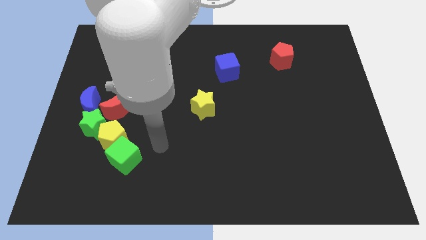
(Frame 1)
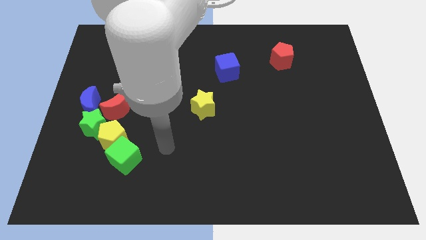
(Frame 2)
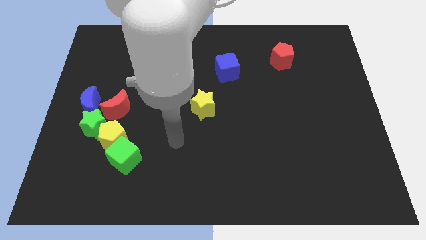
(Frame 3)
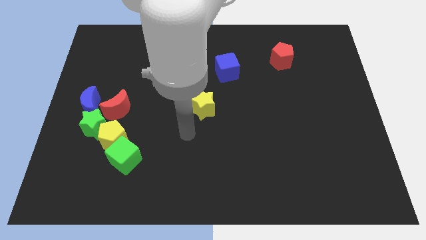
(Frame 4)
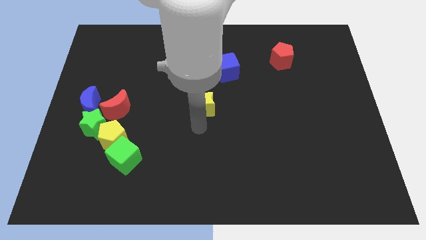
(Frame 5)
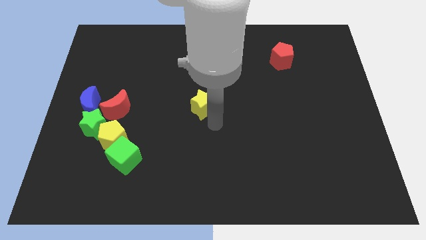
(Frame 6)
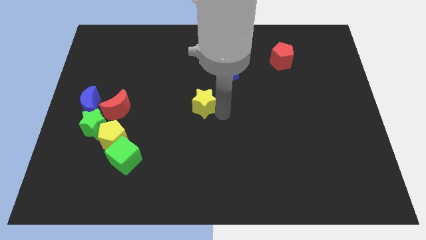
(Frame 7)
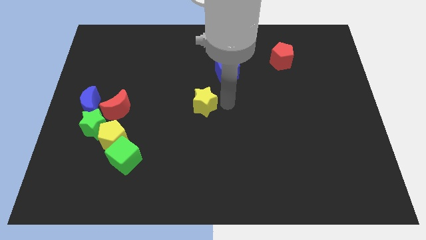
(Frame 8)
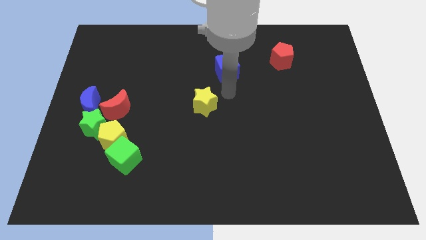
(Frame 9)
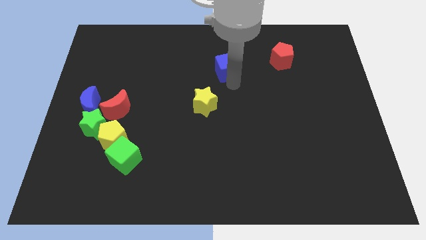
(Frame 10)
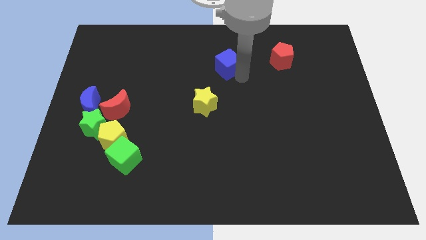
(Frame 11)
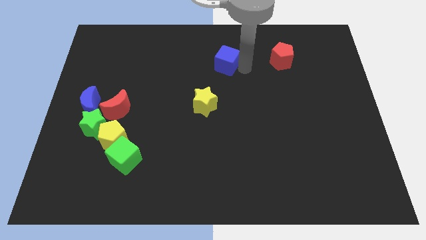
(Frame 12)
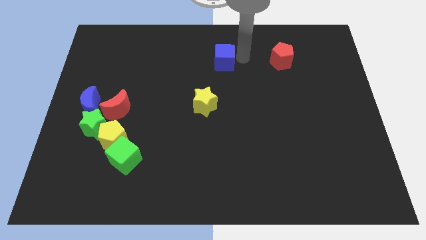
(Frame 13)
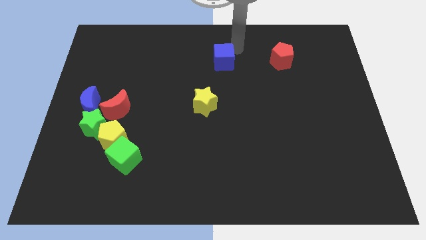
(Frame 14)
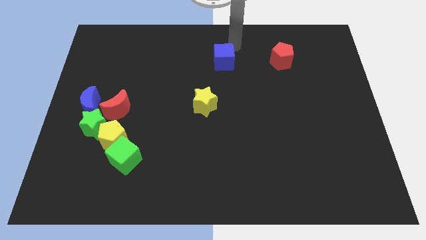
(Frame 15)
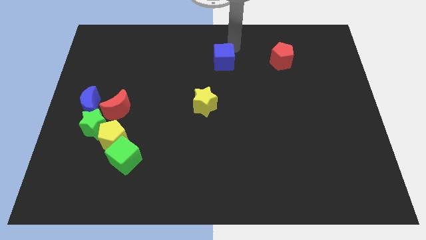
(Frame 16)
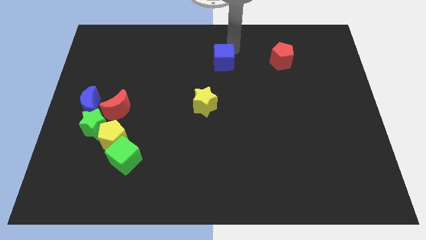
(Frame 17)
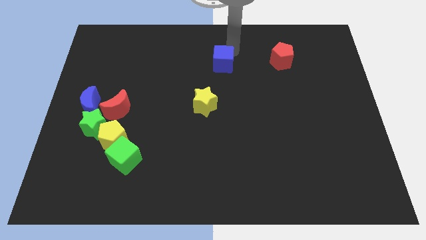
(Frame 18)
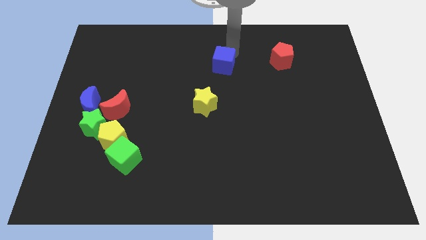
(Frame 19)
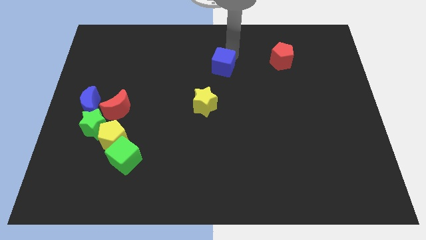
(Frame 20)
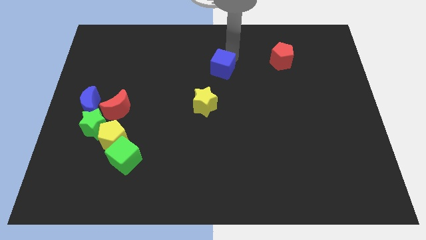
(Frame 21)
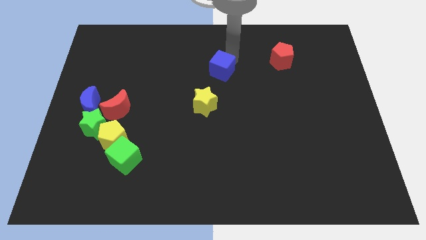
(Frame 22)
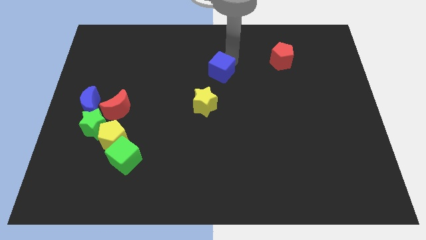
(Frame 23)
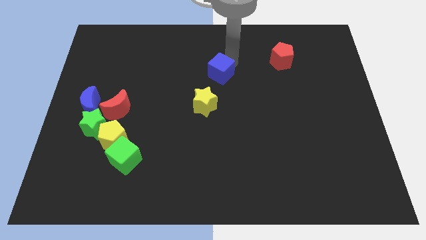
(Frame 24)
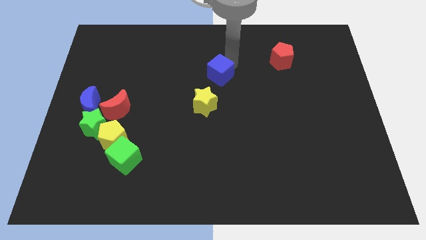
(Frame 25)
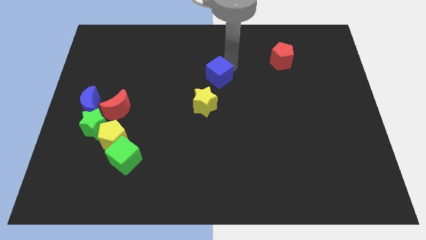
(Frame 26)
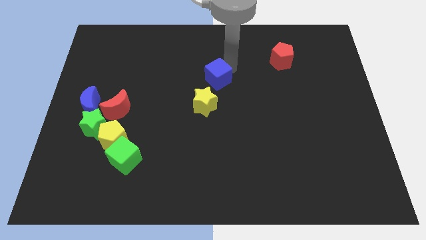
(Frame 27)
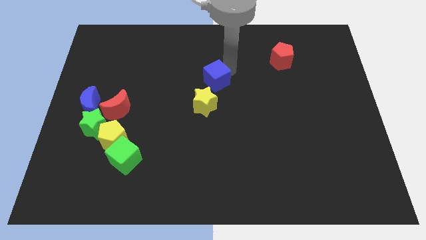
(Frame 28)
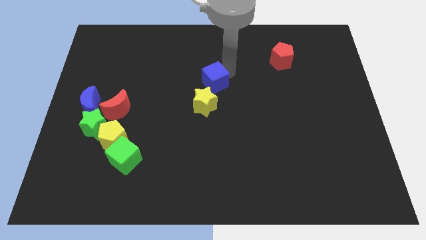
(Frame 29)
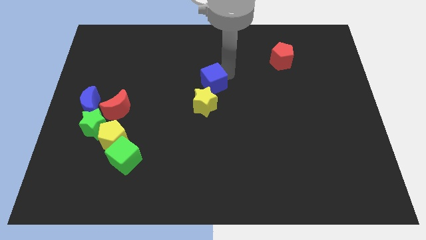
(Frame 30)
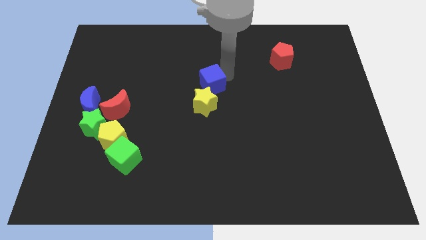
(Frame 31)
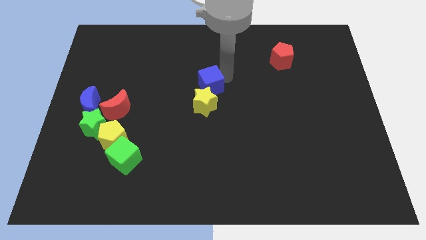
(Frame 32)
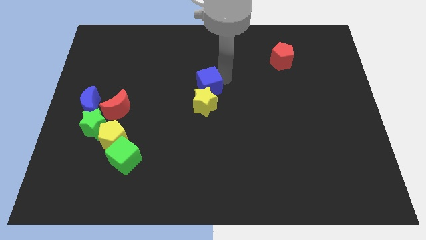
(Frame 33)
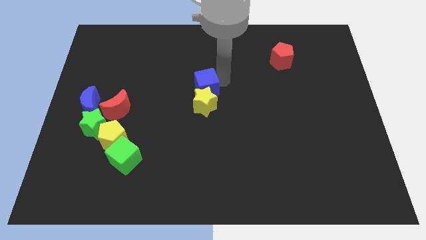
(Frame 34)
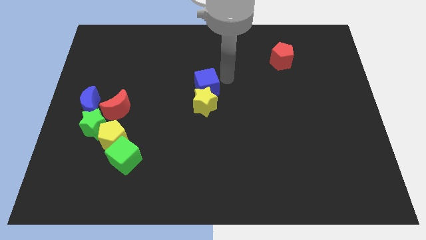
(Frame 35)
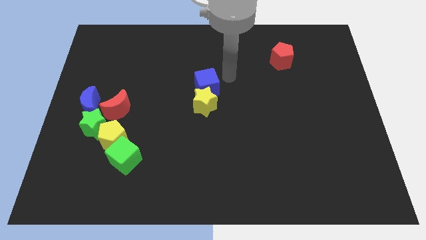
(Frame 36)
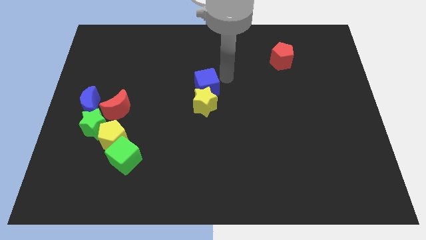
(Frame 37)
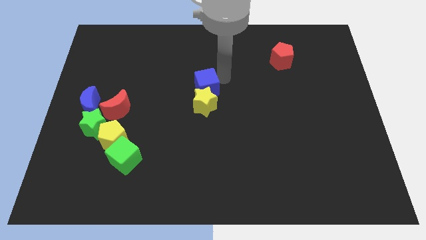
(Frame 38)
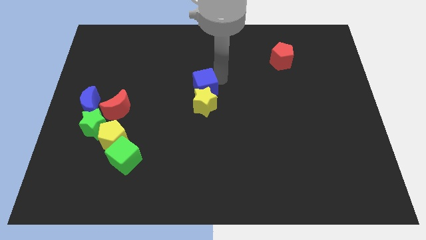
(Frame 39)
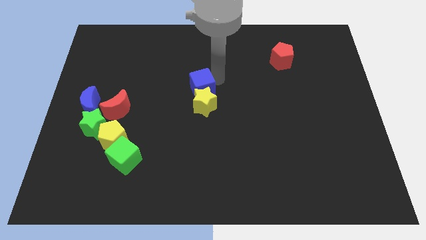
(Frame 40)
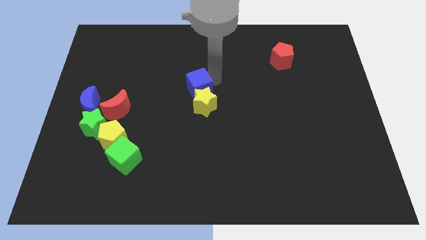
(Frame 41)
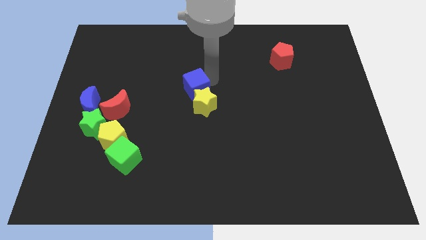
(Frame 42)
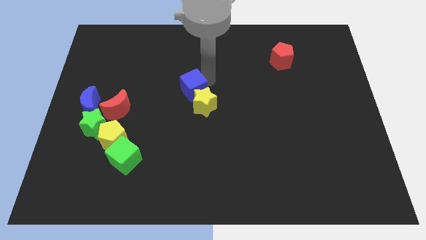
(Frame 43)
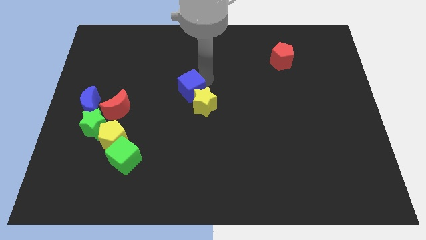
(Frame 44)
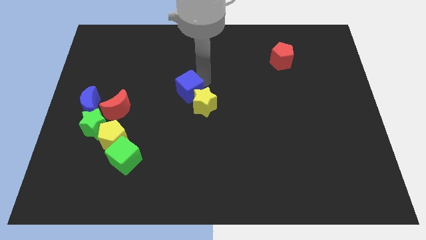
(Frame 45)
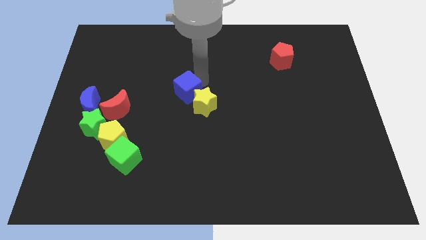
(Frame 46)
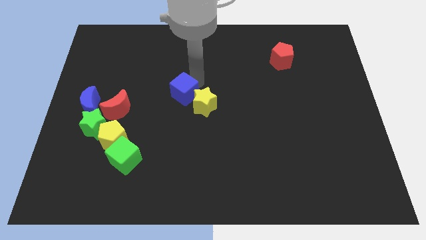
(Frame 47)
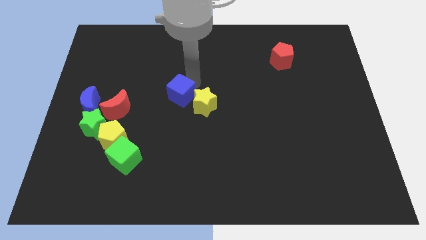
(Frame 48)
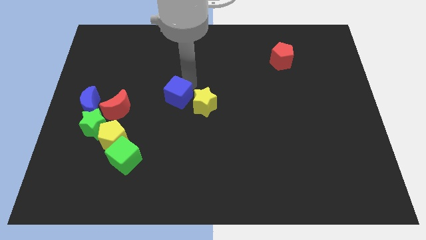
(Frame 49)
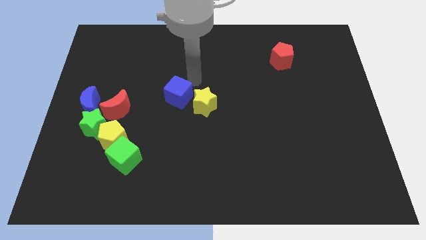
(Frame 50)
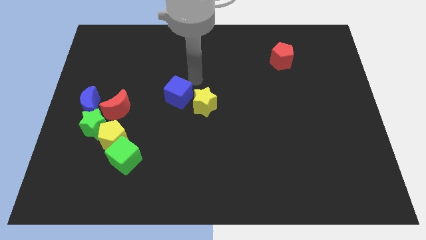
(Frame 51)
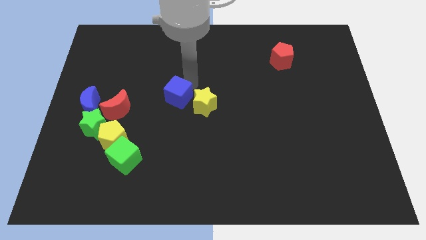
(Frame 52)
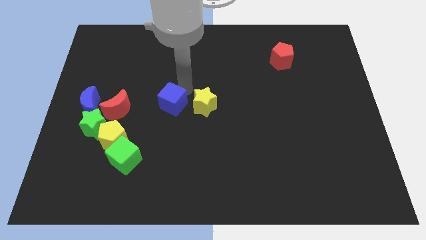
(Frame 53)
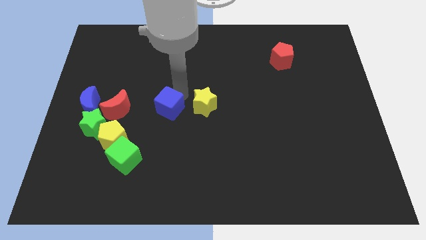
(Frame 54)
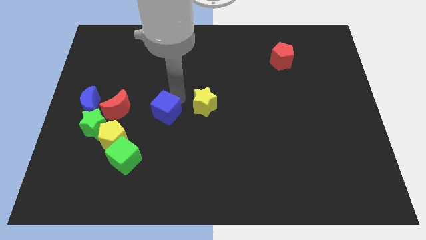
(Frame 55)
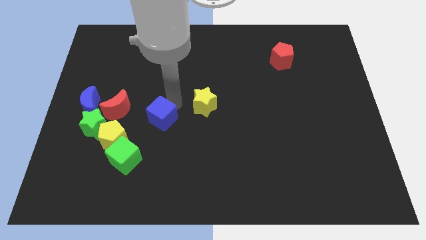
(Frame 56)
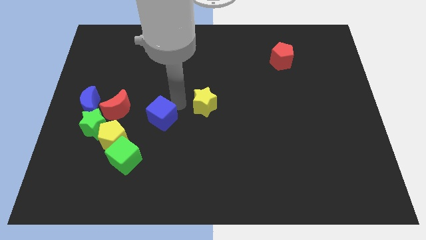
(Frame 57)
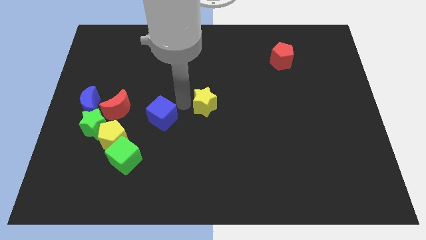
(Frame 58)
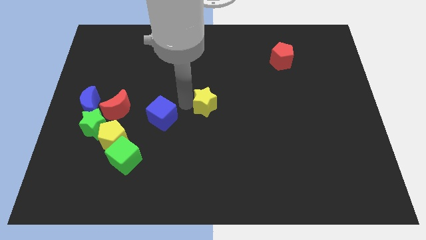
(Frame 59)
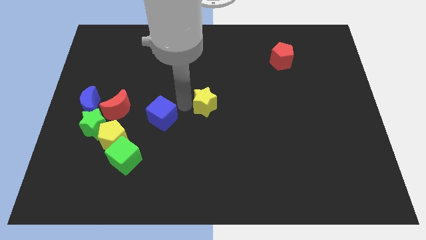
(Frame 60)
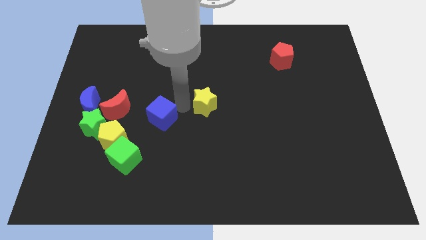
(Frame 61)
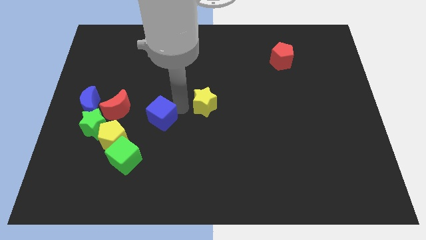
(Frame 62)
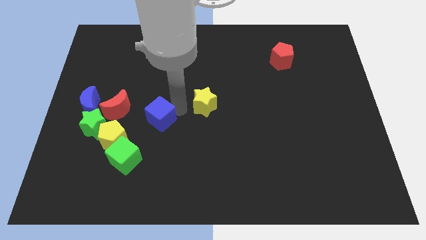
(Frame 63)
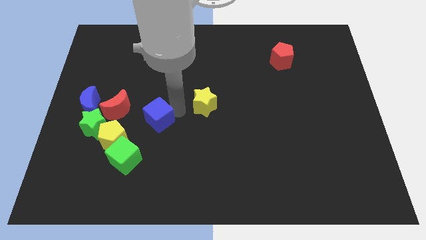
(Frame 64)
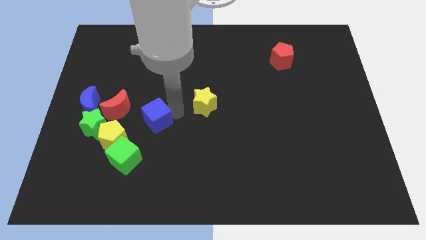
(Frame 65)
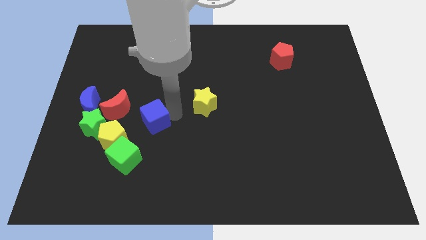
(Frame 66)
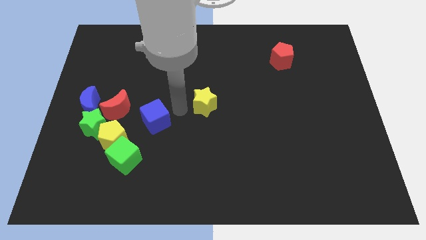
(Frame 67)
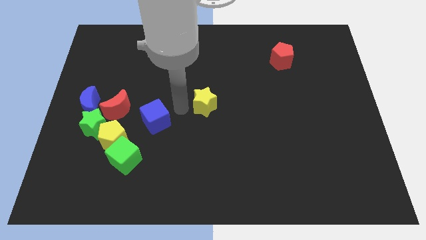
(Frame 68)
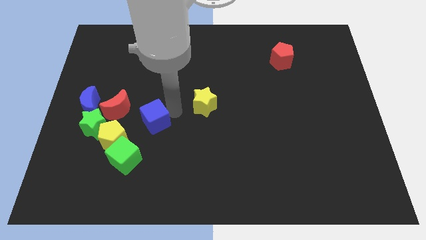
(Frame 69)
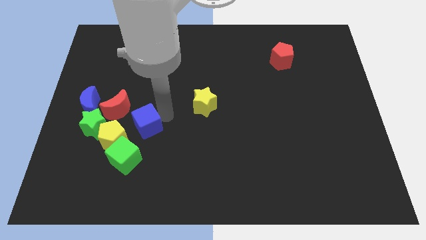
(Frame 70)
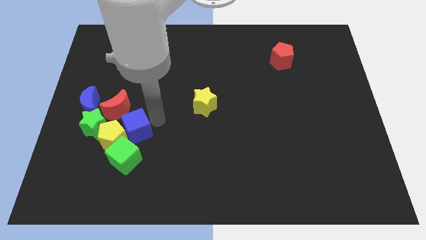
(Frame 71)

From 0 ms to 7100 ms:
slide the blue cube towards the yellow pentagon
